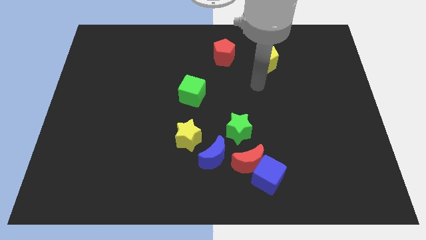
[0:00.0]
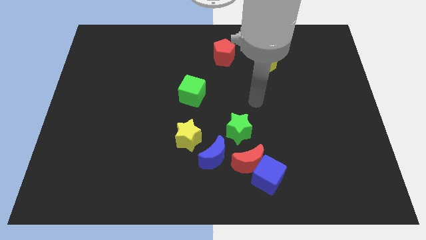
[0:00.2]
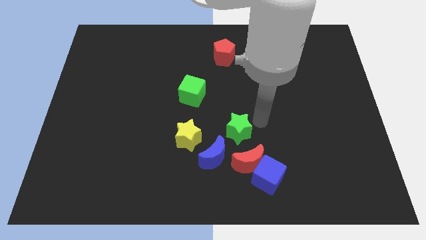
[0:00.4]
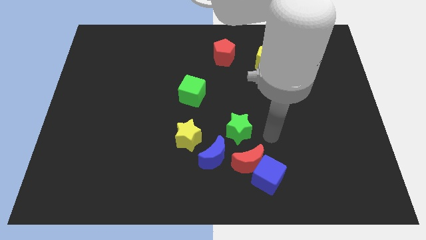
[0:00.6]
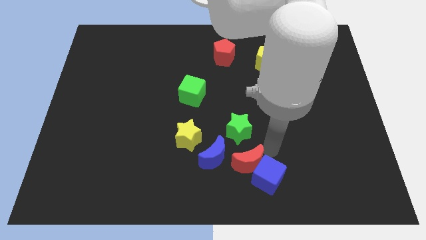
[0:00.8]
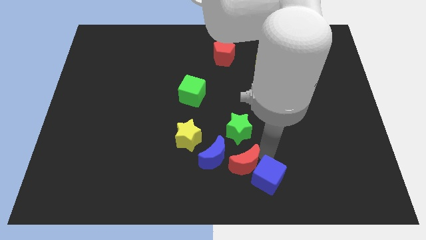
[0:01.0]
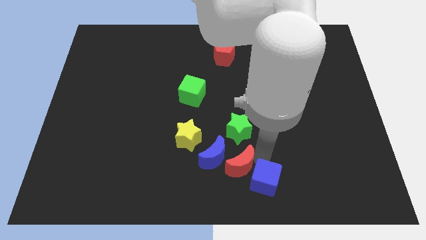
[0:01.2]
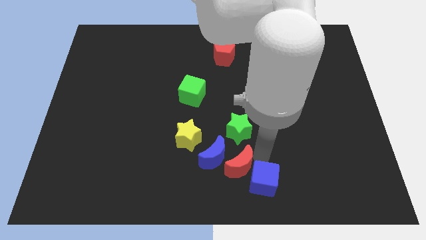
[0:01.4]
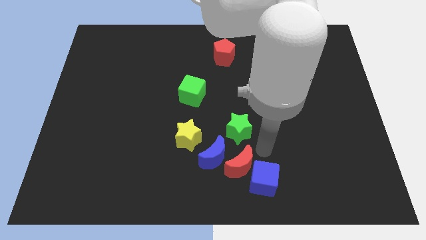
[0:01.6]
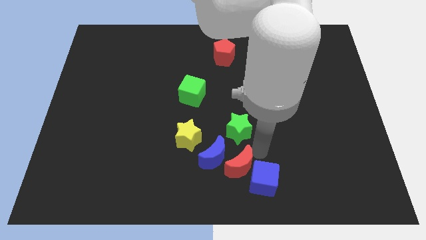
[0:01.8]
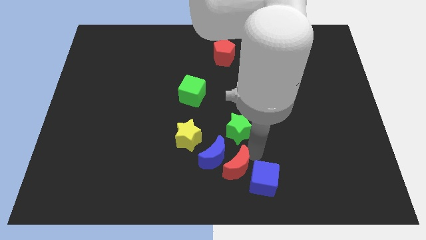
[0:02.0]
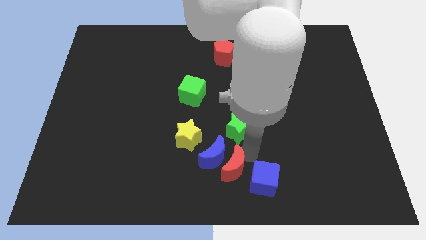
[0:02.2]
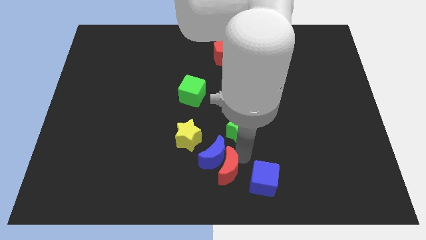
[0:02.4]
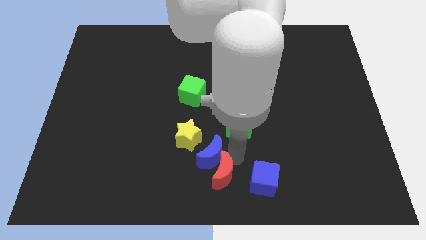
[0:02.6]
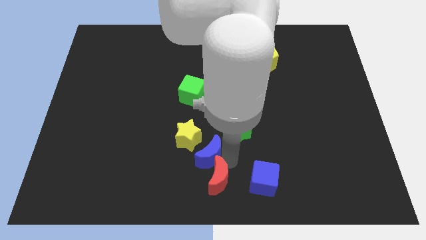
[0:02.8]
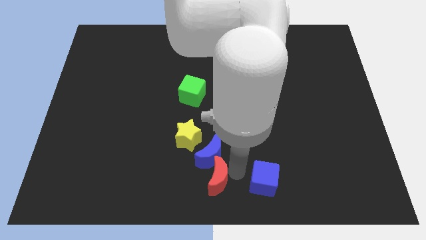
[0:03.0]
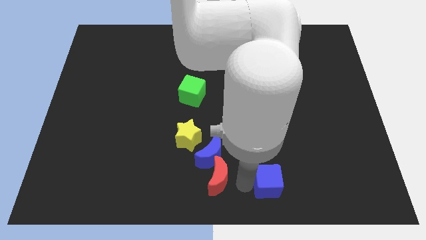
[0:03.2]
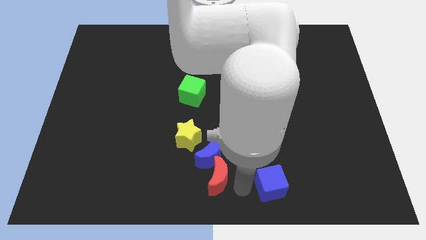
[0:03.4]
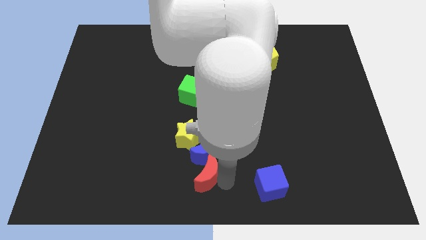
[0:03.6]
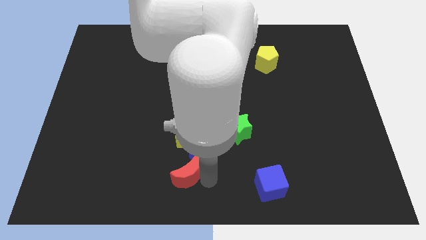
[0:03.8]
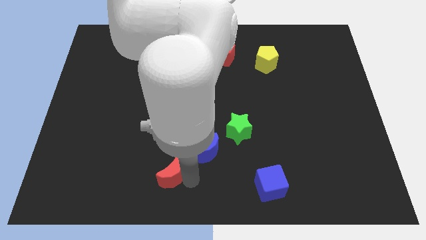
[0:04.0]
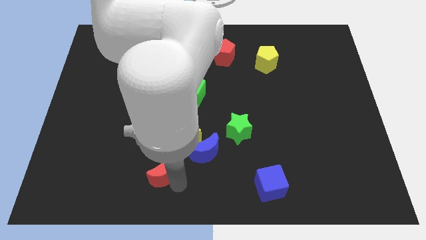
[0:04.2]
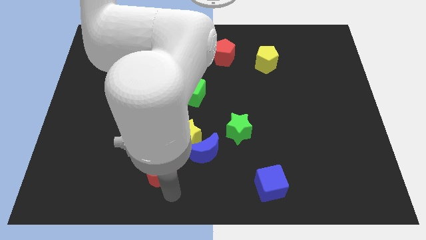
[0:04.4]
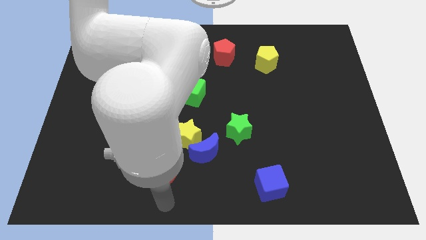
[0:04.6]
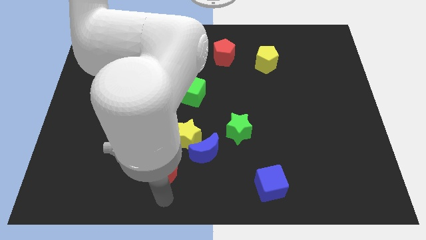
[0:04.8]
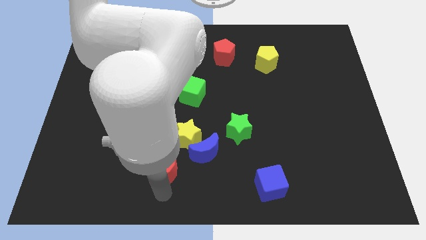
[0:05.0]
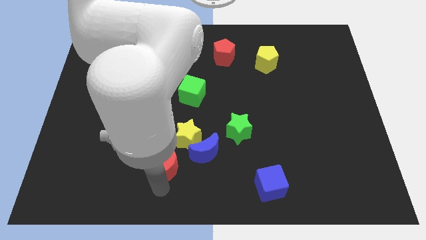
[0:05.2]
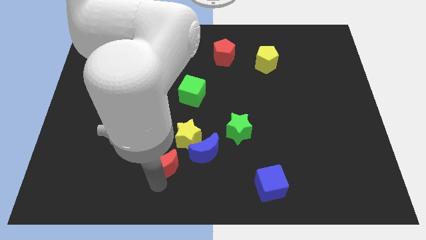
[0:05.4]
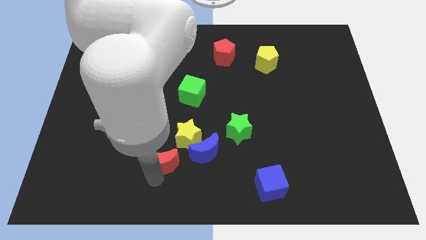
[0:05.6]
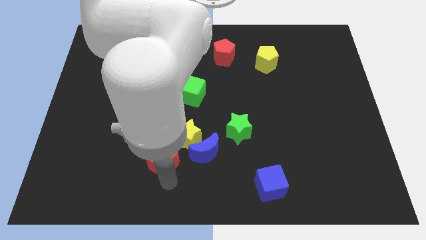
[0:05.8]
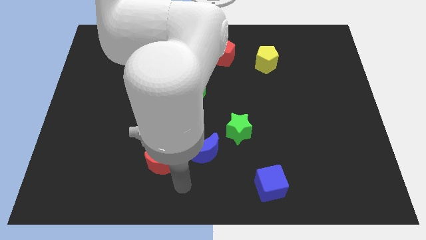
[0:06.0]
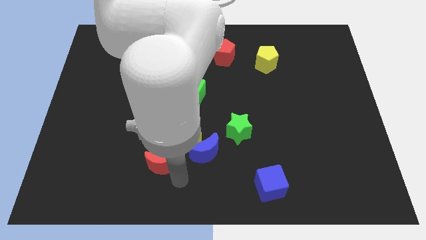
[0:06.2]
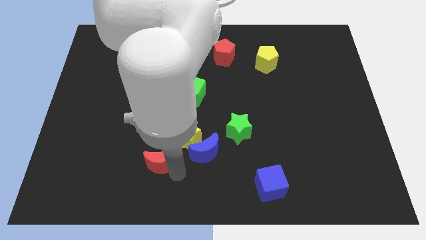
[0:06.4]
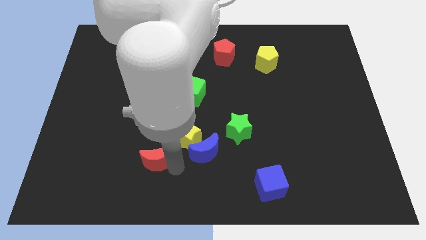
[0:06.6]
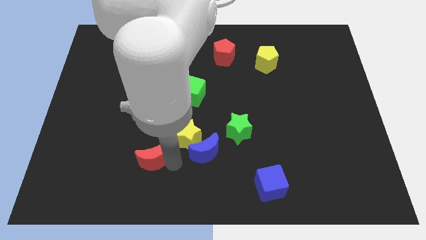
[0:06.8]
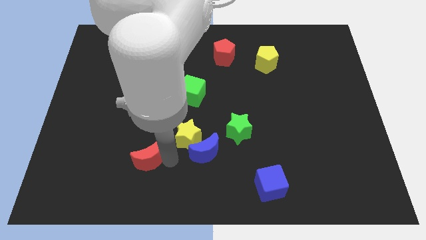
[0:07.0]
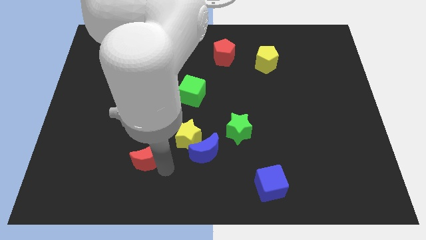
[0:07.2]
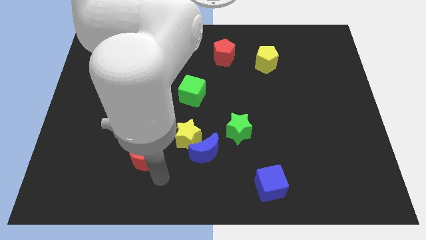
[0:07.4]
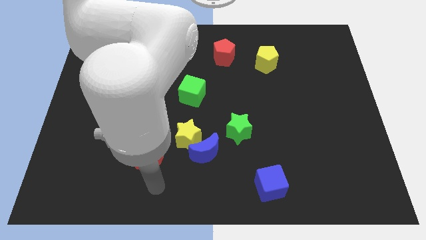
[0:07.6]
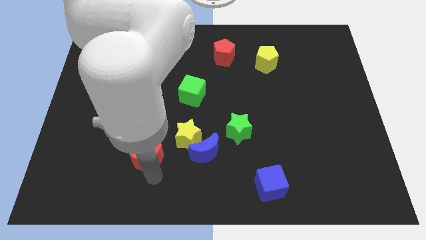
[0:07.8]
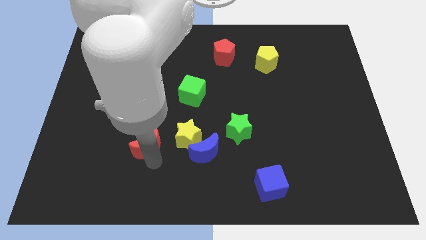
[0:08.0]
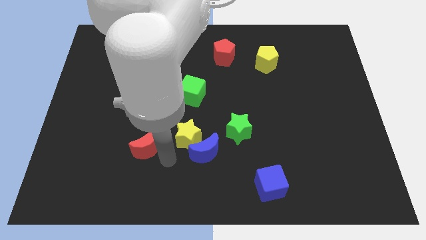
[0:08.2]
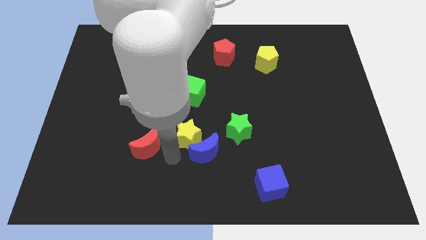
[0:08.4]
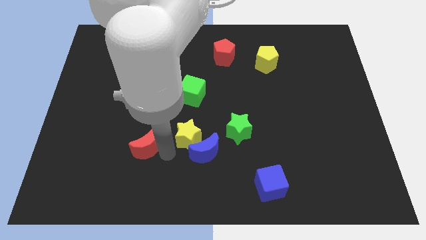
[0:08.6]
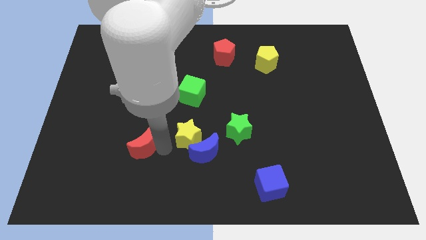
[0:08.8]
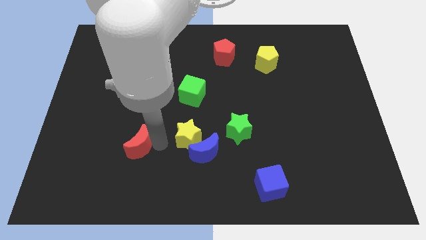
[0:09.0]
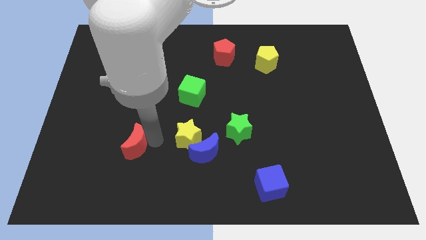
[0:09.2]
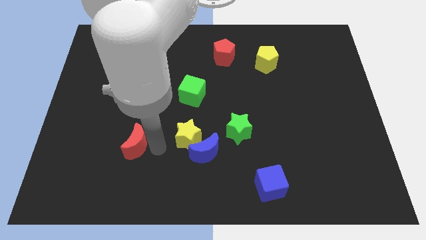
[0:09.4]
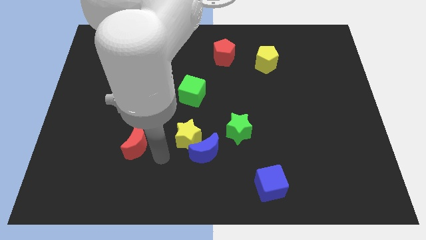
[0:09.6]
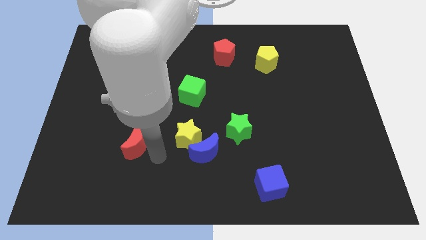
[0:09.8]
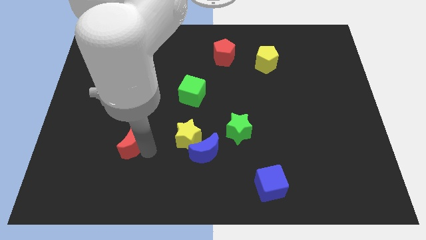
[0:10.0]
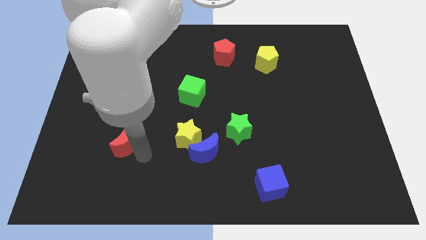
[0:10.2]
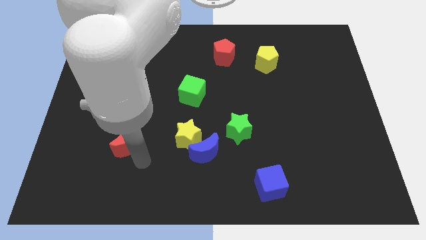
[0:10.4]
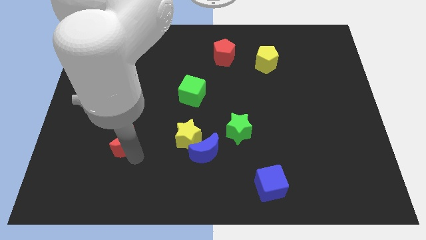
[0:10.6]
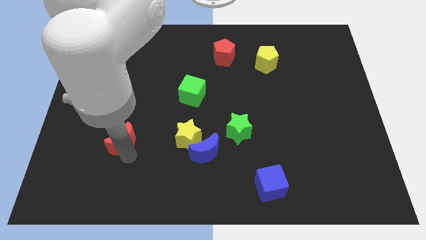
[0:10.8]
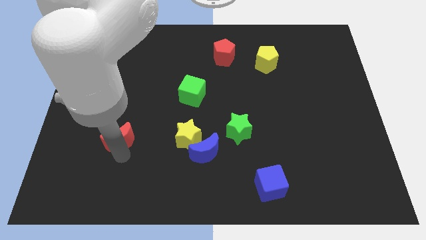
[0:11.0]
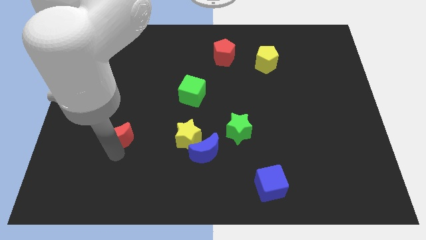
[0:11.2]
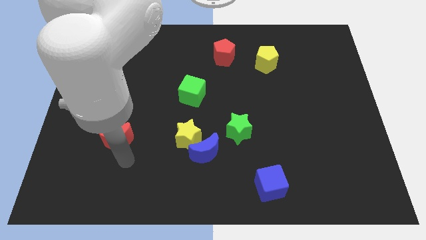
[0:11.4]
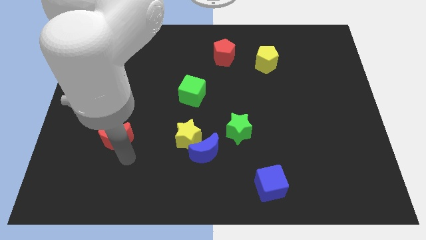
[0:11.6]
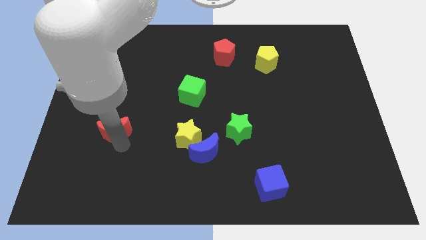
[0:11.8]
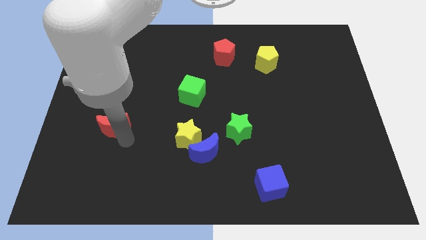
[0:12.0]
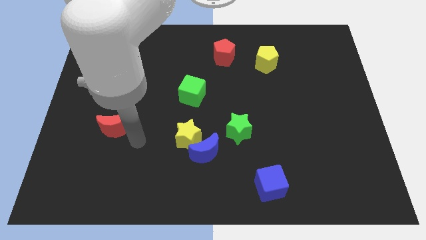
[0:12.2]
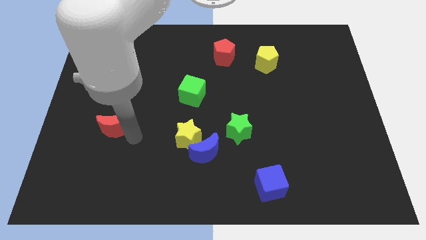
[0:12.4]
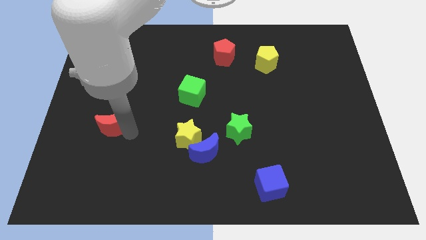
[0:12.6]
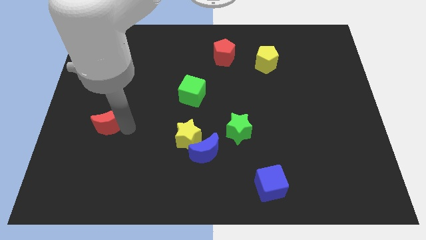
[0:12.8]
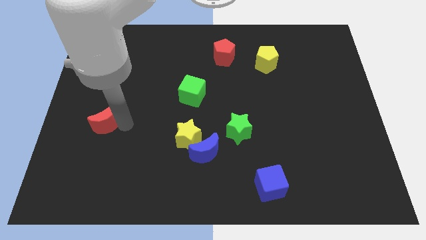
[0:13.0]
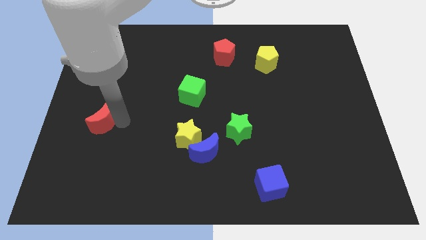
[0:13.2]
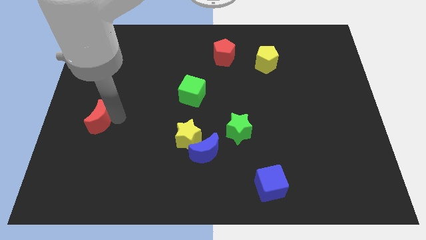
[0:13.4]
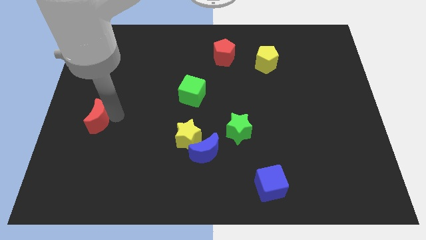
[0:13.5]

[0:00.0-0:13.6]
slide the red moon to the left side of the board

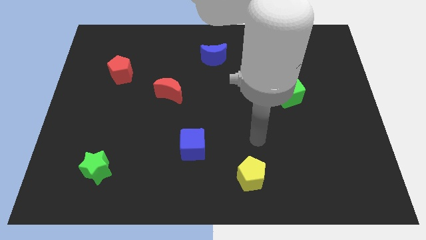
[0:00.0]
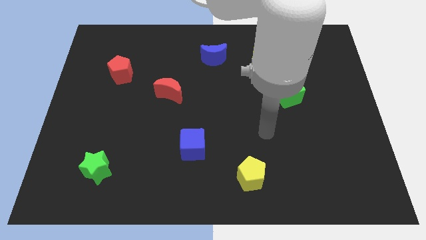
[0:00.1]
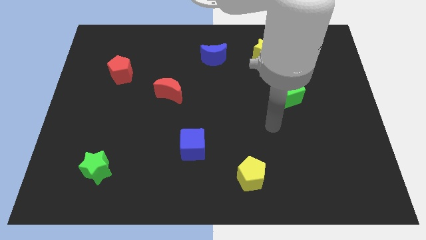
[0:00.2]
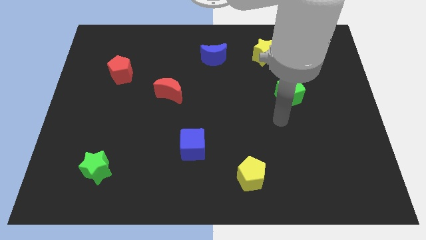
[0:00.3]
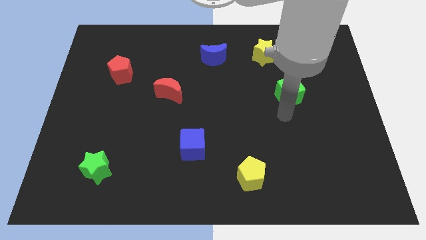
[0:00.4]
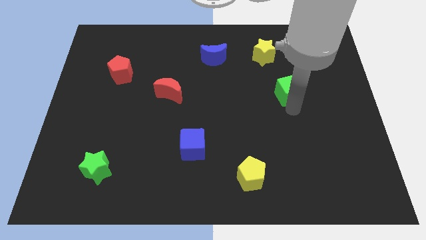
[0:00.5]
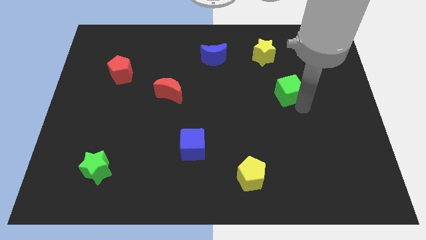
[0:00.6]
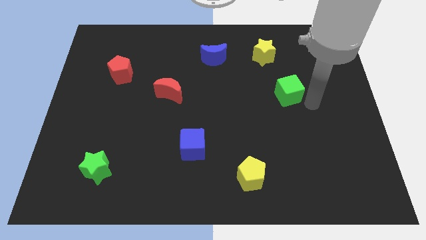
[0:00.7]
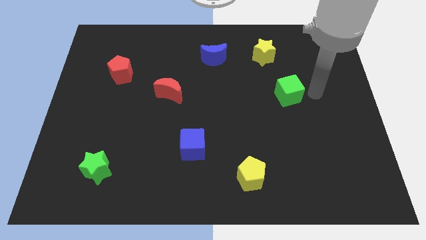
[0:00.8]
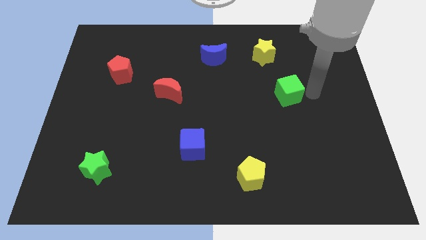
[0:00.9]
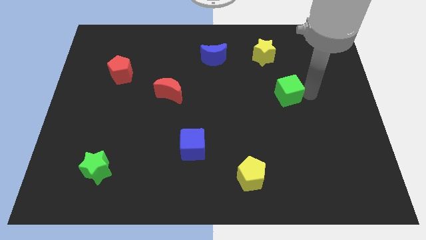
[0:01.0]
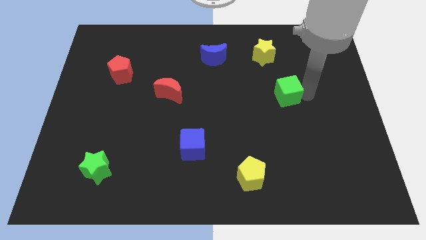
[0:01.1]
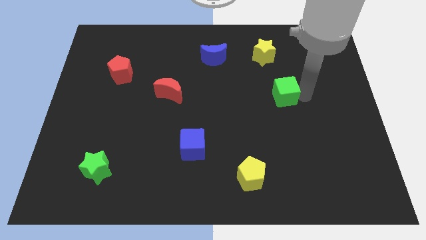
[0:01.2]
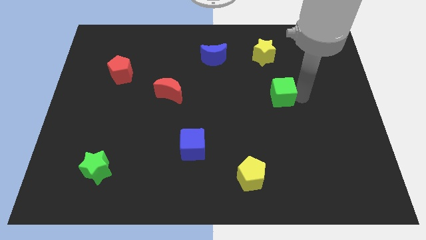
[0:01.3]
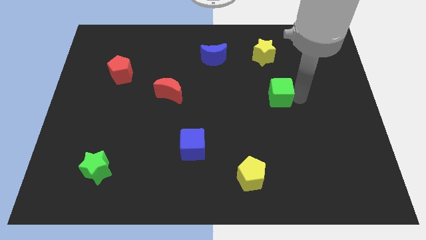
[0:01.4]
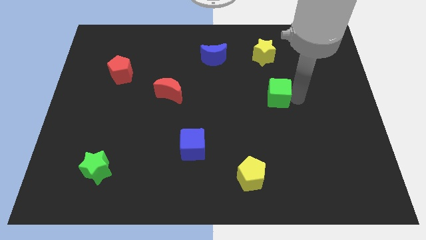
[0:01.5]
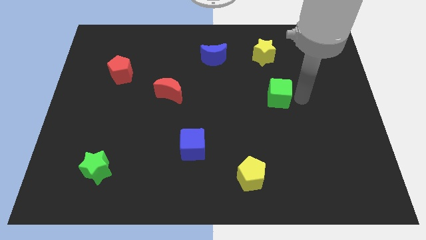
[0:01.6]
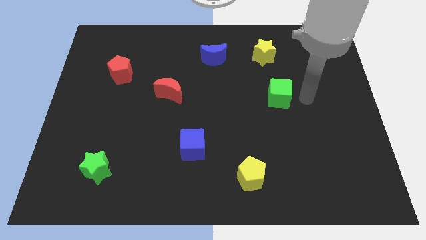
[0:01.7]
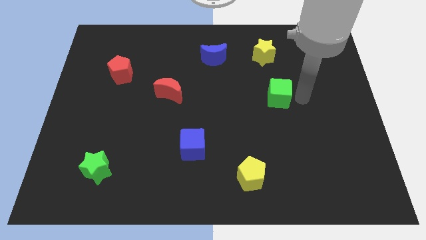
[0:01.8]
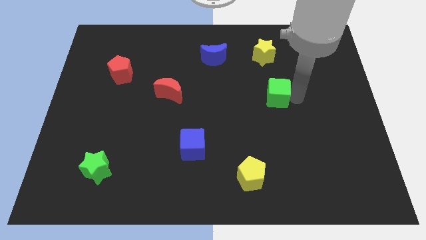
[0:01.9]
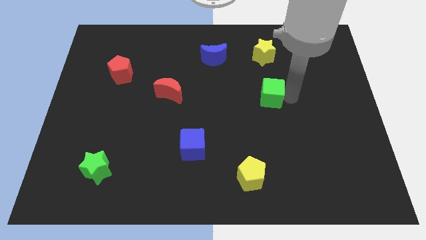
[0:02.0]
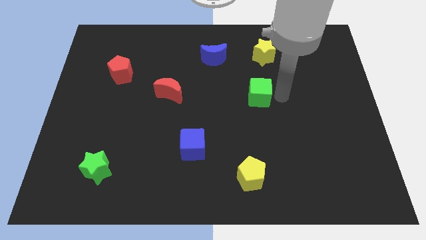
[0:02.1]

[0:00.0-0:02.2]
put the green cube to the center
